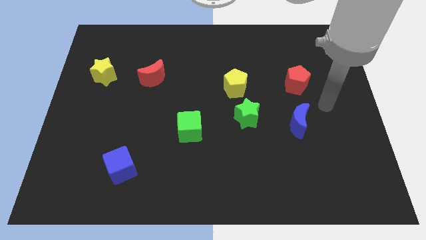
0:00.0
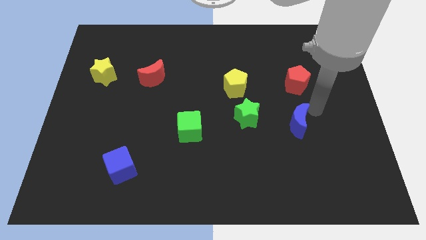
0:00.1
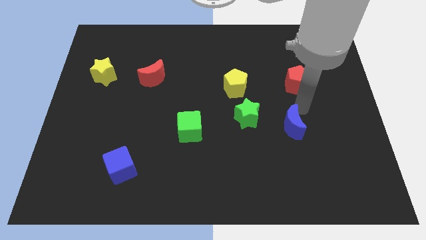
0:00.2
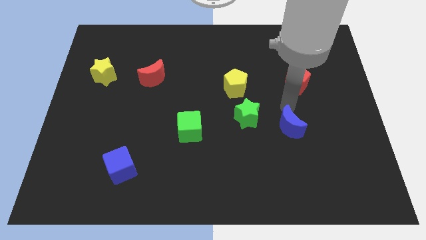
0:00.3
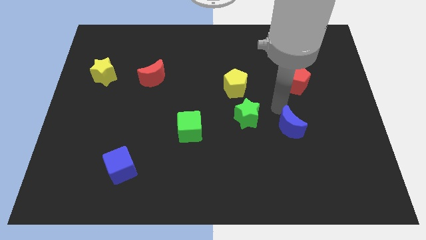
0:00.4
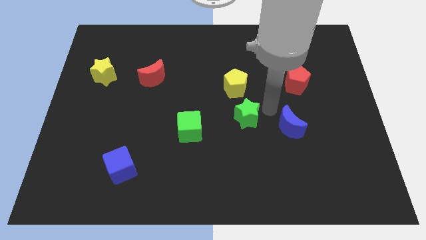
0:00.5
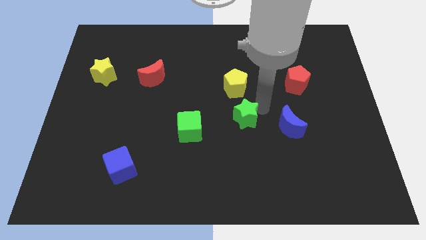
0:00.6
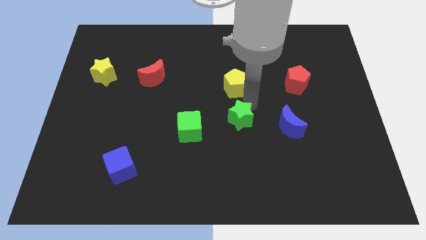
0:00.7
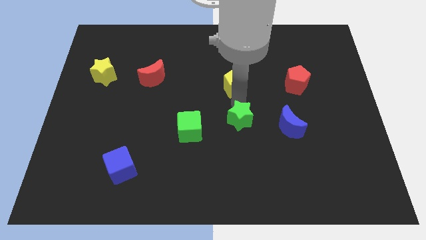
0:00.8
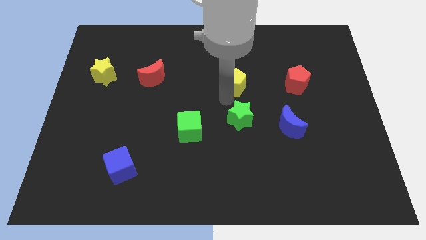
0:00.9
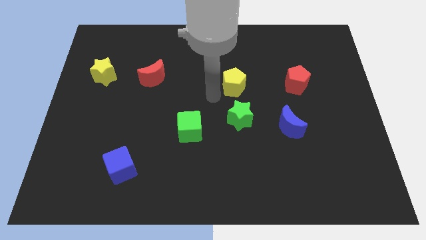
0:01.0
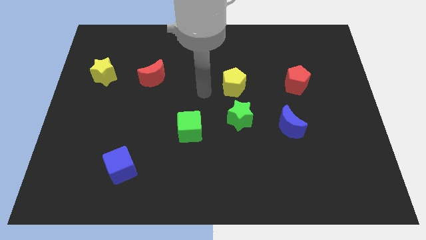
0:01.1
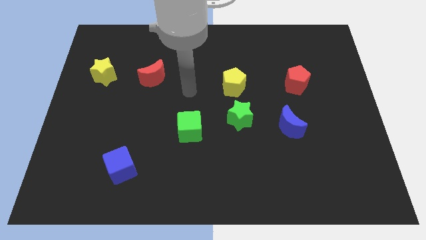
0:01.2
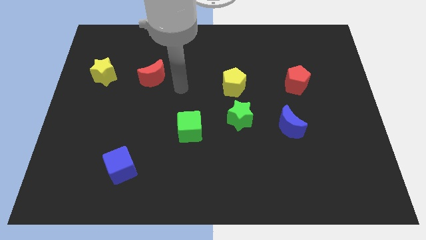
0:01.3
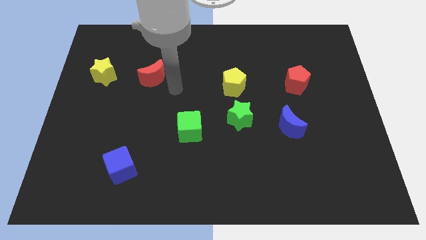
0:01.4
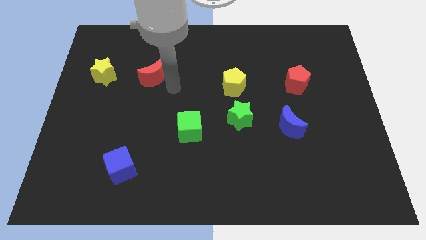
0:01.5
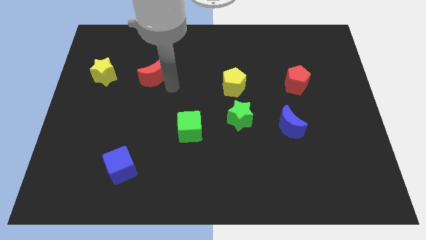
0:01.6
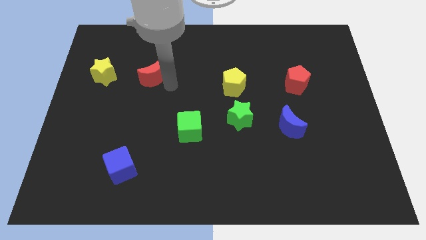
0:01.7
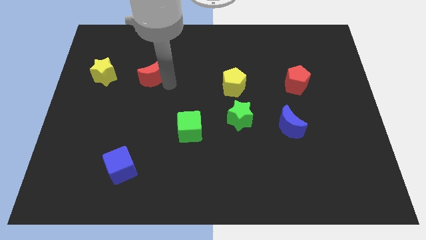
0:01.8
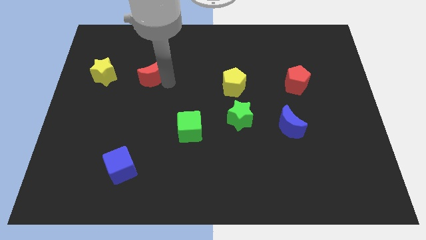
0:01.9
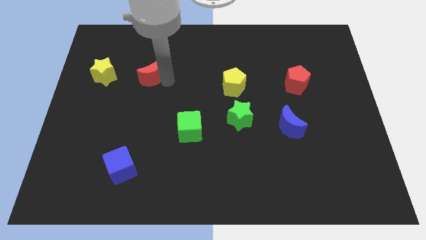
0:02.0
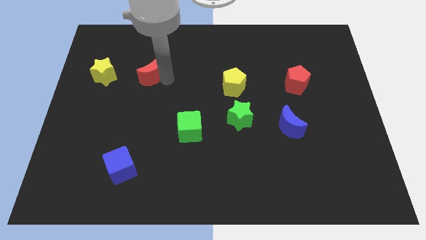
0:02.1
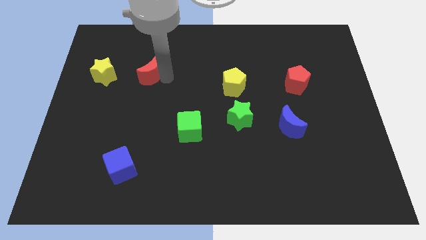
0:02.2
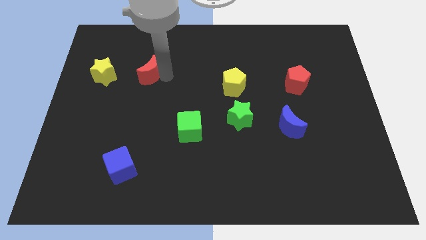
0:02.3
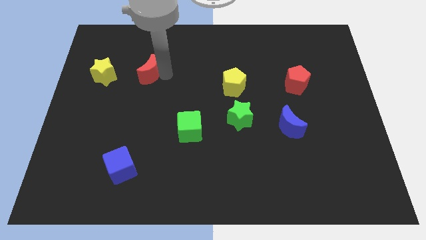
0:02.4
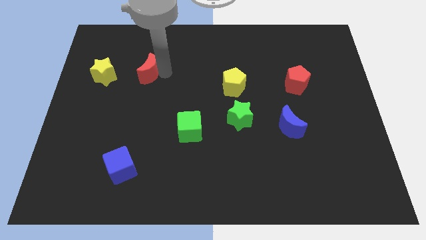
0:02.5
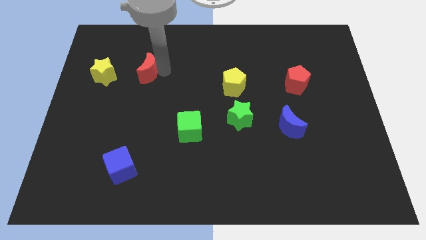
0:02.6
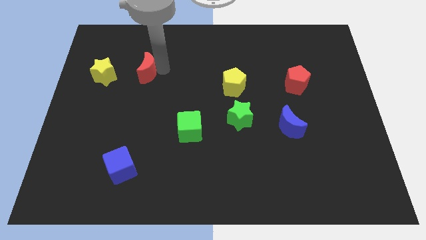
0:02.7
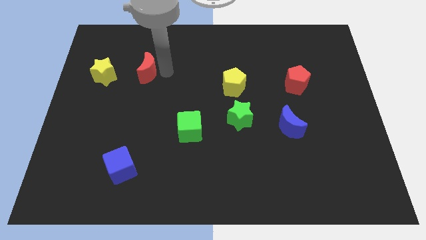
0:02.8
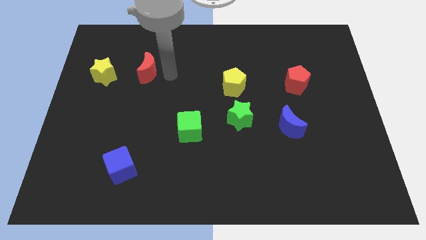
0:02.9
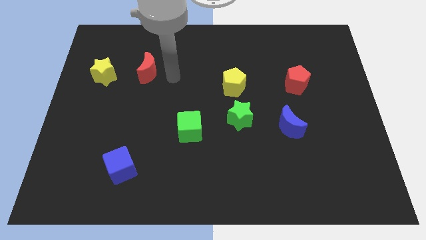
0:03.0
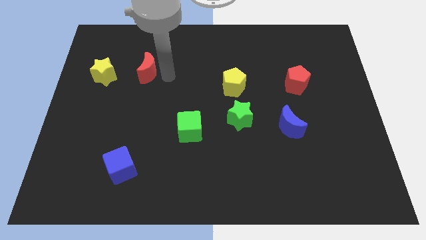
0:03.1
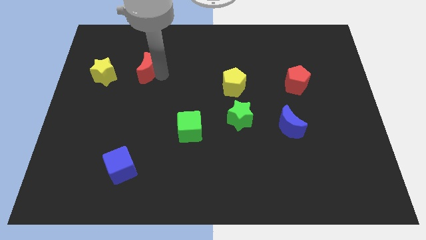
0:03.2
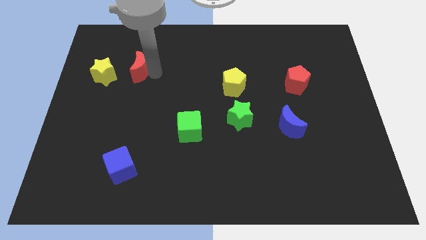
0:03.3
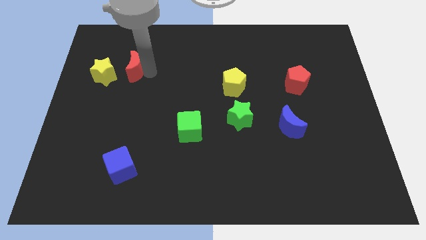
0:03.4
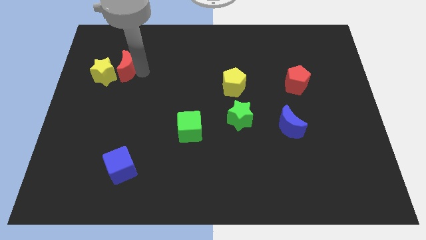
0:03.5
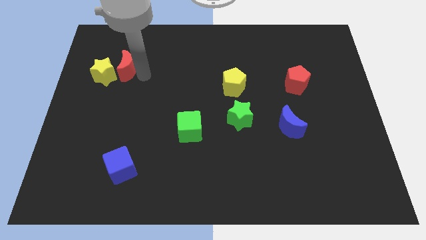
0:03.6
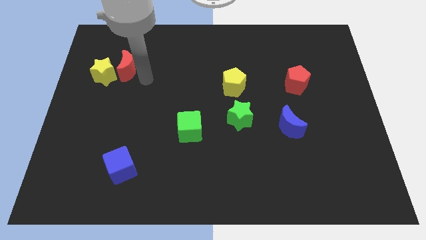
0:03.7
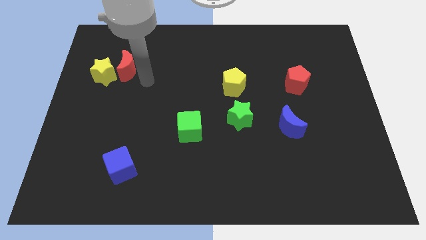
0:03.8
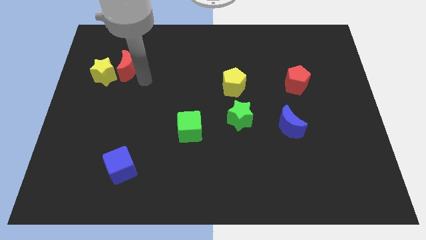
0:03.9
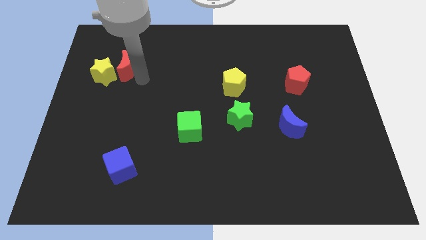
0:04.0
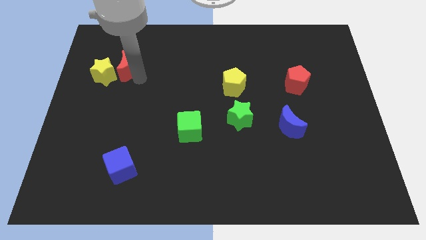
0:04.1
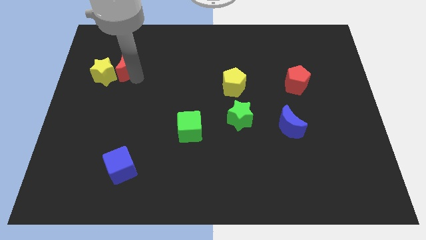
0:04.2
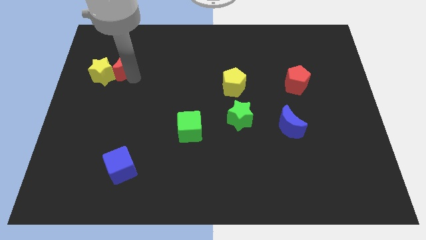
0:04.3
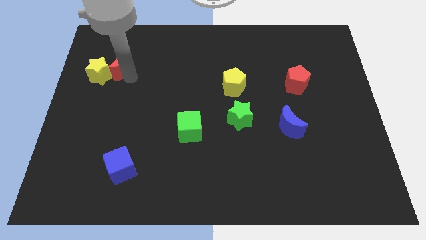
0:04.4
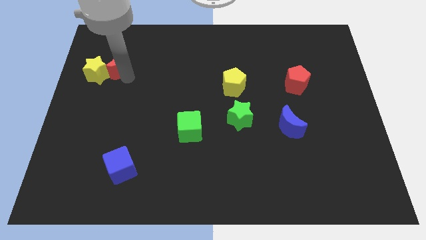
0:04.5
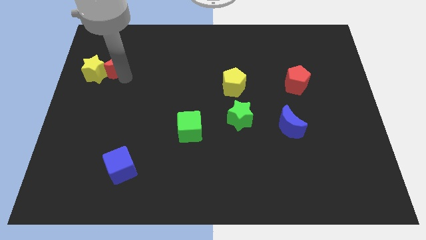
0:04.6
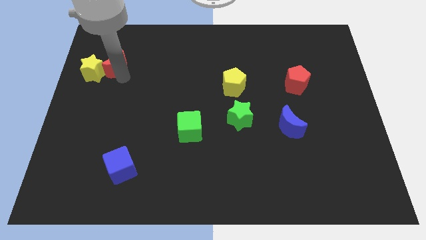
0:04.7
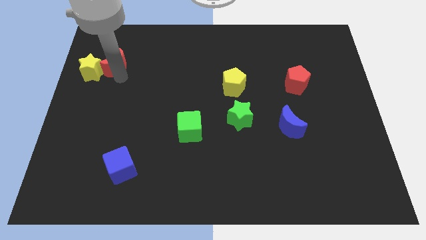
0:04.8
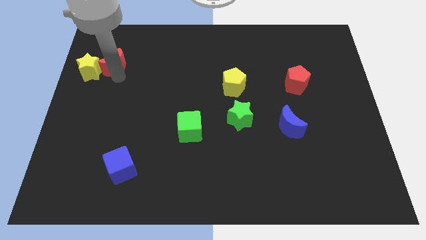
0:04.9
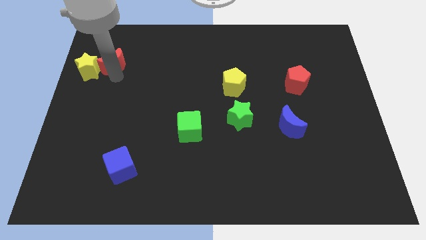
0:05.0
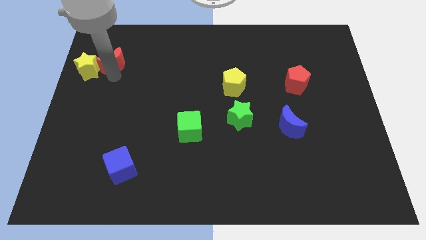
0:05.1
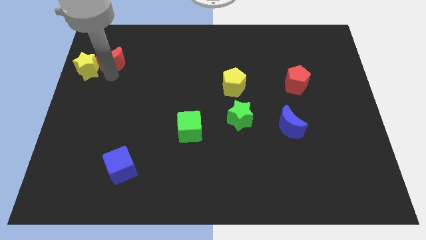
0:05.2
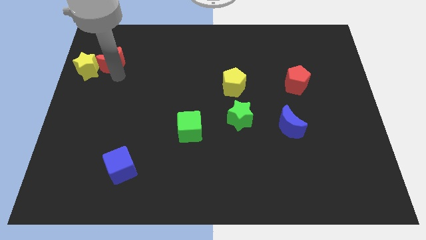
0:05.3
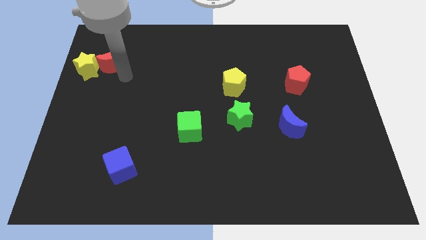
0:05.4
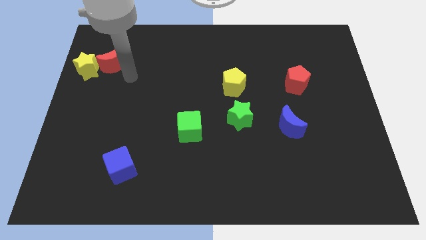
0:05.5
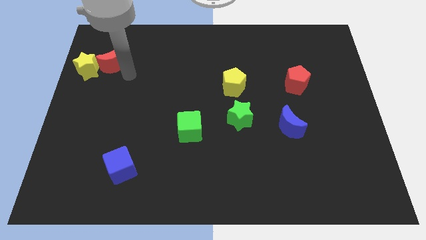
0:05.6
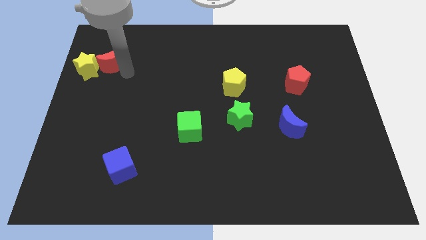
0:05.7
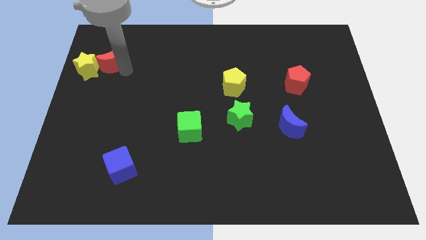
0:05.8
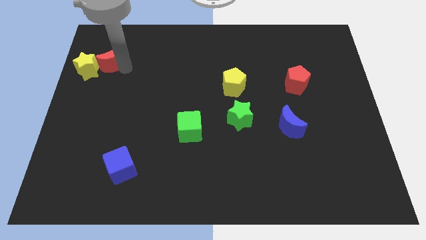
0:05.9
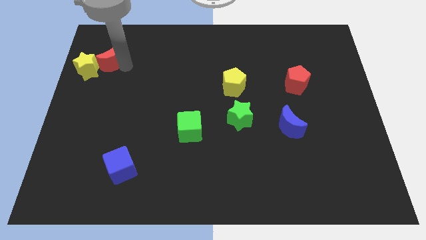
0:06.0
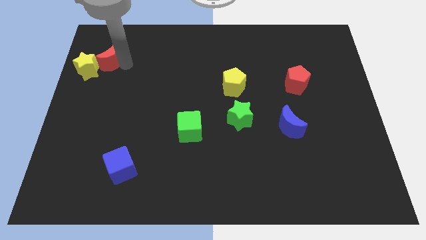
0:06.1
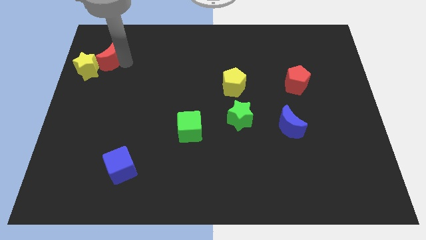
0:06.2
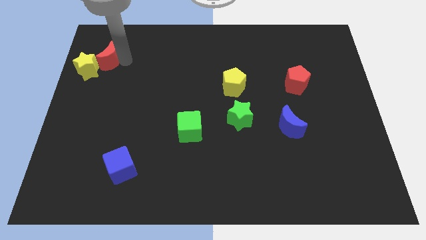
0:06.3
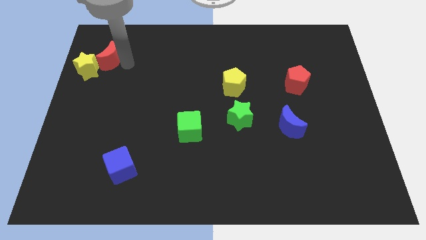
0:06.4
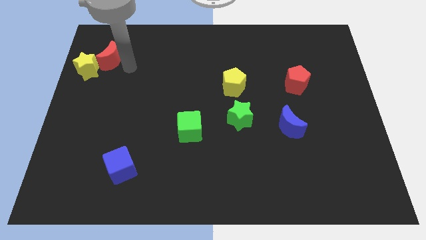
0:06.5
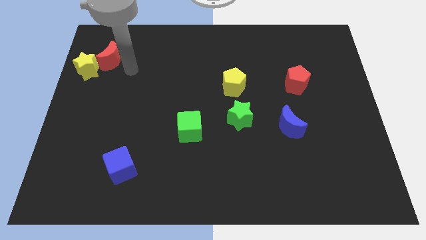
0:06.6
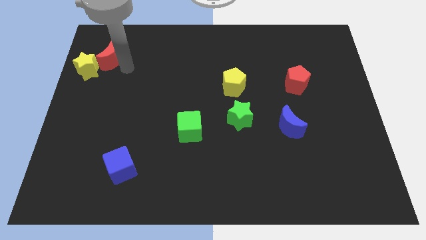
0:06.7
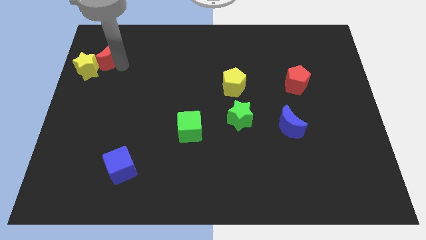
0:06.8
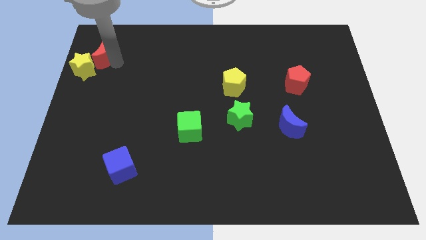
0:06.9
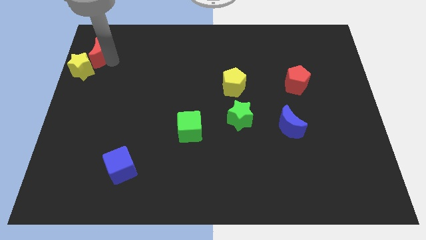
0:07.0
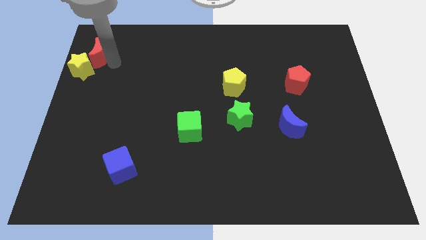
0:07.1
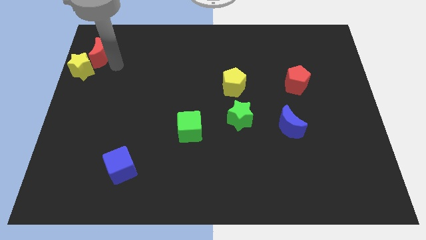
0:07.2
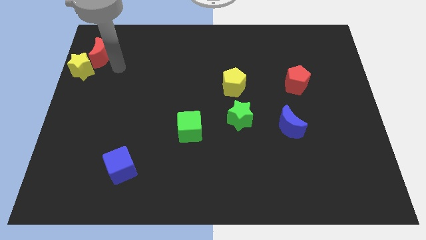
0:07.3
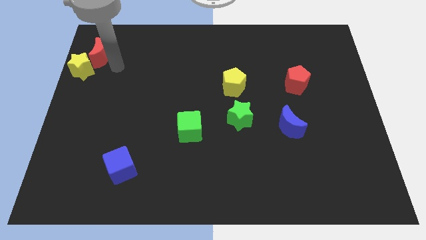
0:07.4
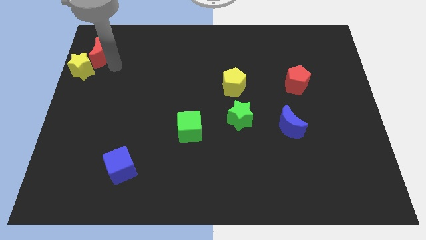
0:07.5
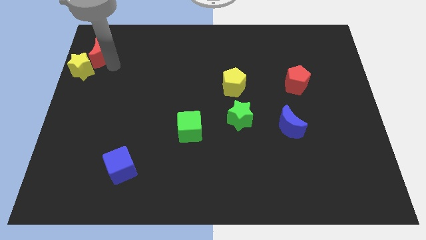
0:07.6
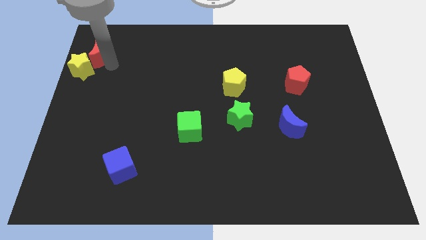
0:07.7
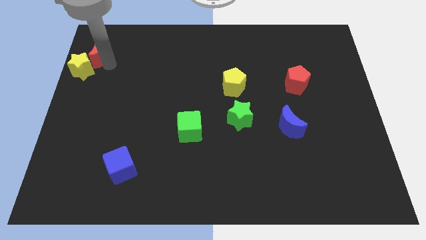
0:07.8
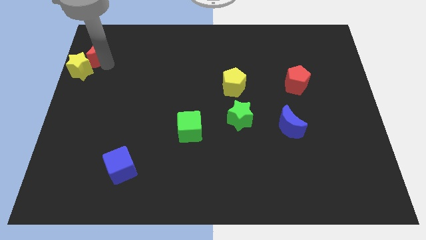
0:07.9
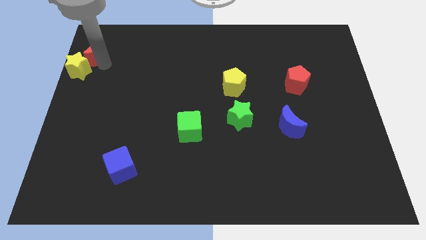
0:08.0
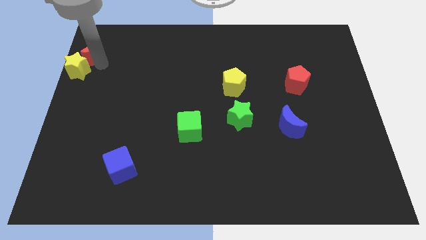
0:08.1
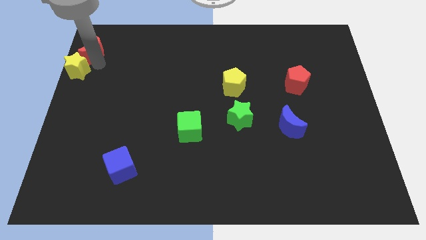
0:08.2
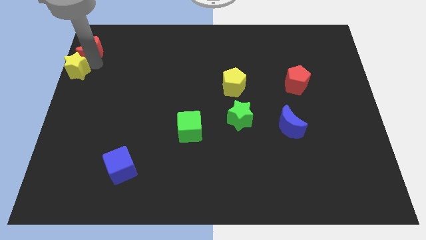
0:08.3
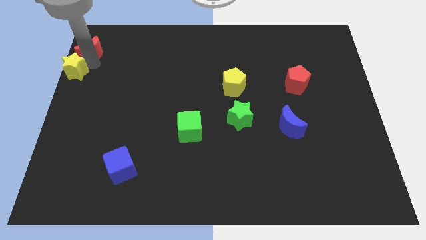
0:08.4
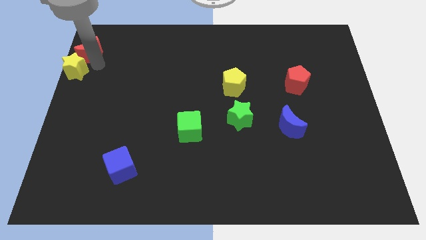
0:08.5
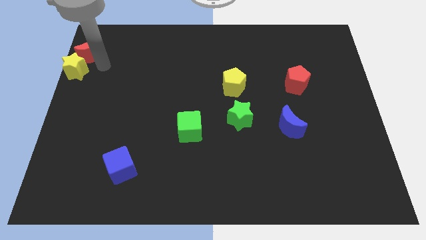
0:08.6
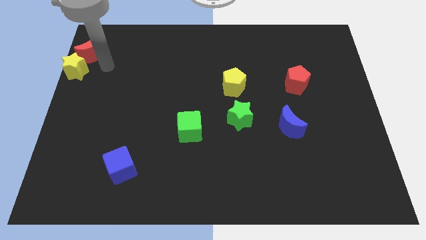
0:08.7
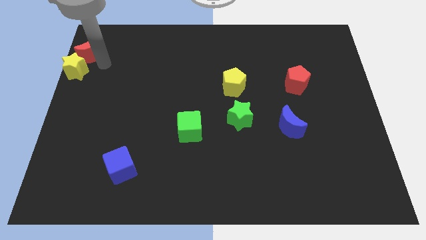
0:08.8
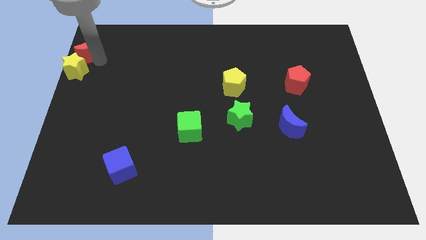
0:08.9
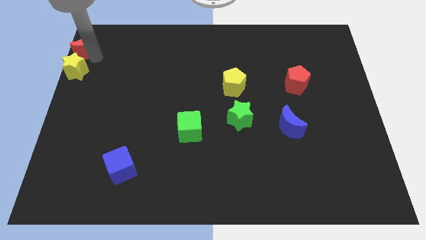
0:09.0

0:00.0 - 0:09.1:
move the red moon to the top left of the board
